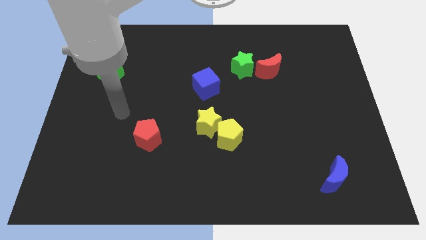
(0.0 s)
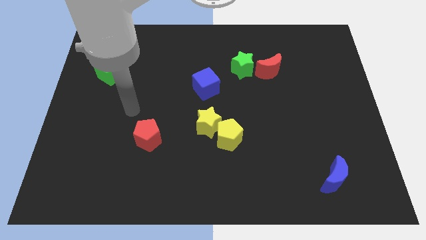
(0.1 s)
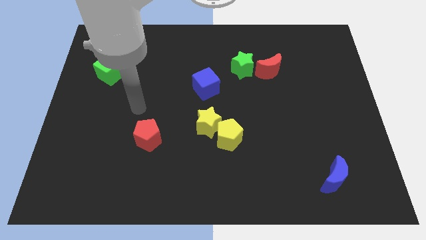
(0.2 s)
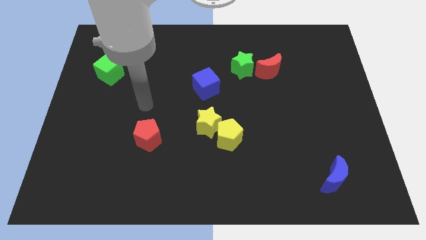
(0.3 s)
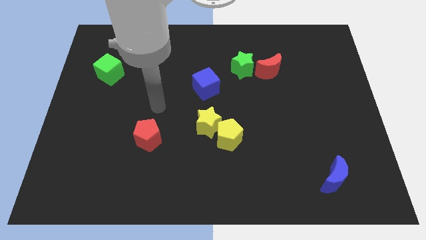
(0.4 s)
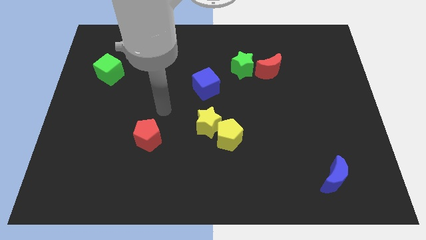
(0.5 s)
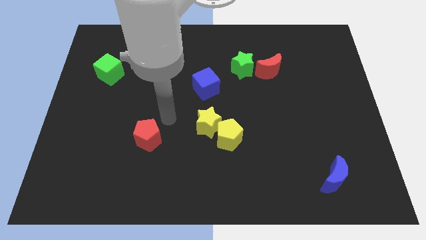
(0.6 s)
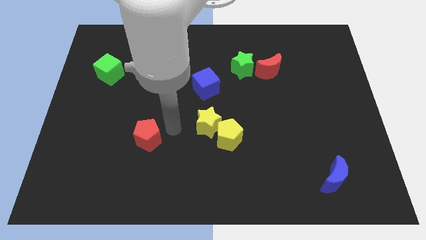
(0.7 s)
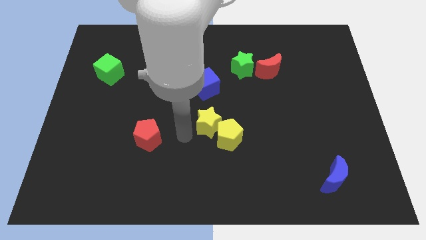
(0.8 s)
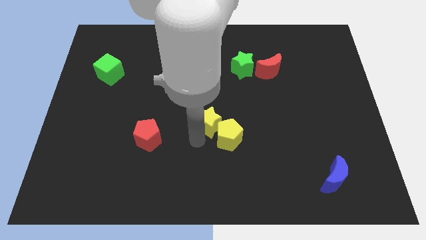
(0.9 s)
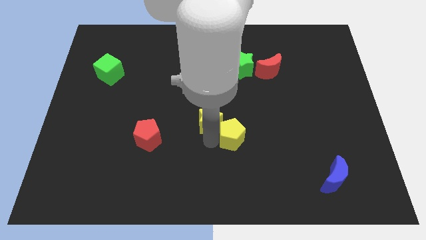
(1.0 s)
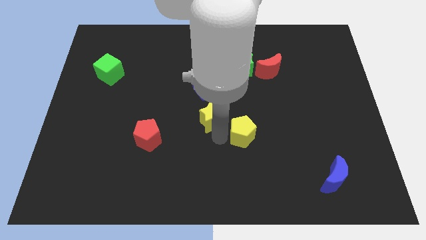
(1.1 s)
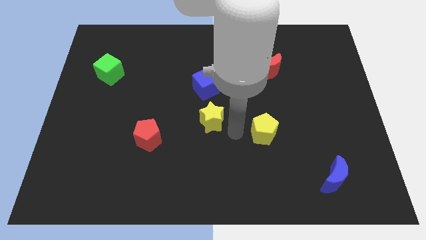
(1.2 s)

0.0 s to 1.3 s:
pull the yellow star apart from the yellow pentagon

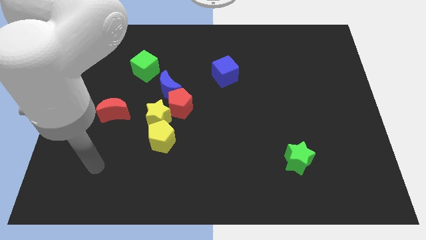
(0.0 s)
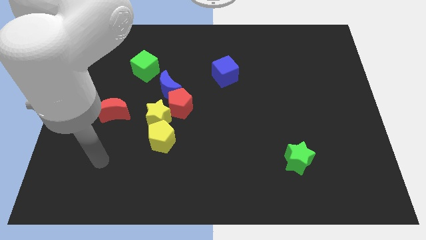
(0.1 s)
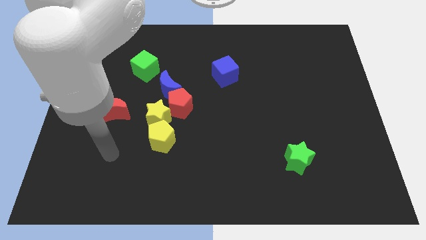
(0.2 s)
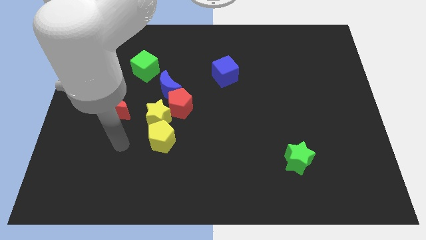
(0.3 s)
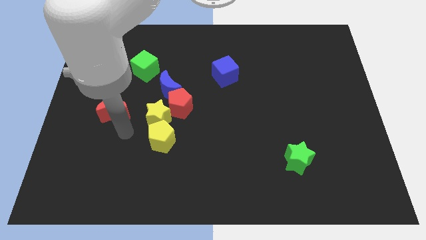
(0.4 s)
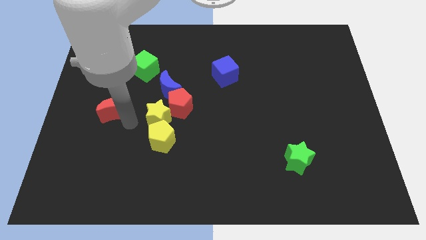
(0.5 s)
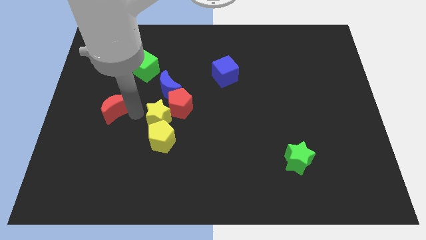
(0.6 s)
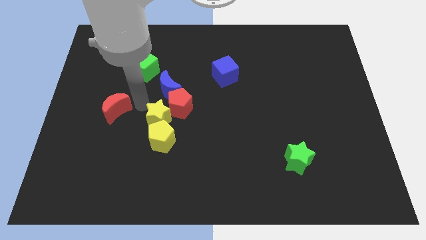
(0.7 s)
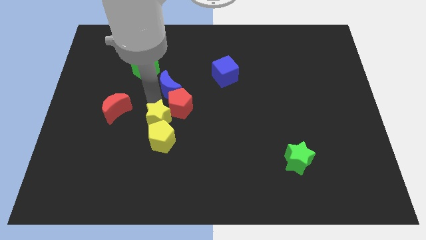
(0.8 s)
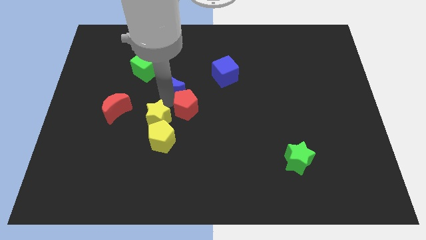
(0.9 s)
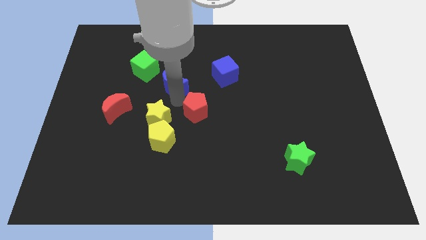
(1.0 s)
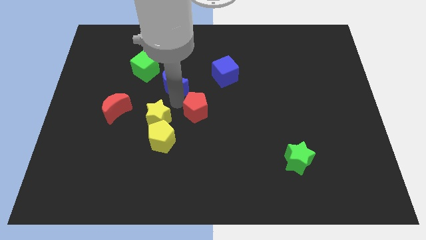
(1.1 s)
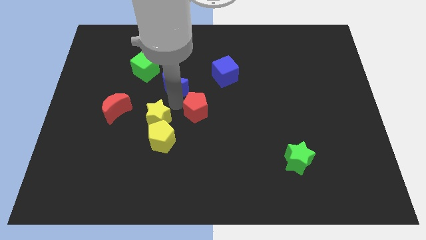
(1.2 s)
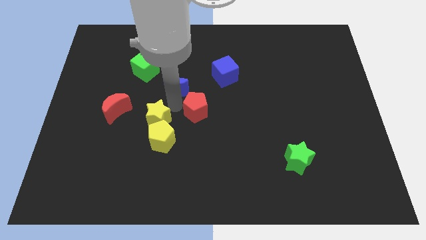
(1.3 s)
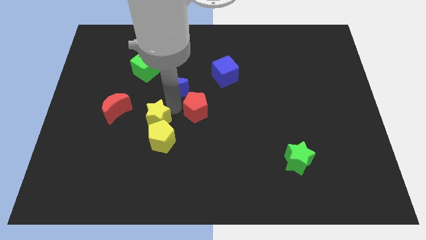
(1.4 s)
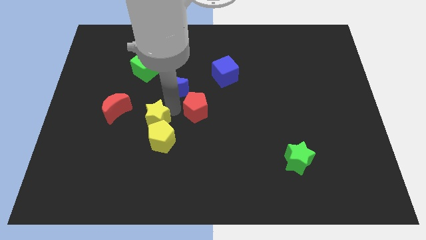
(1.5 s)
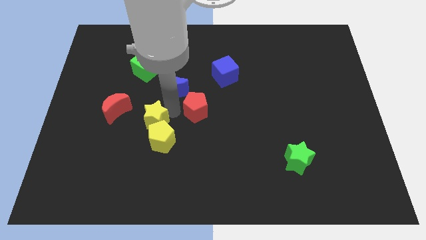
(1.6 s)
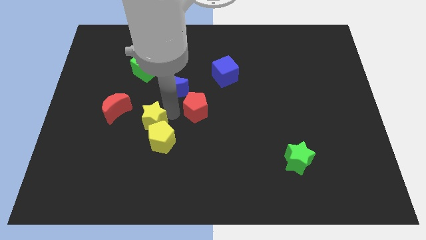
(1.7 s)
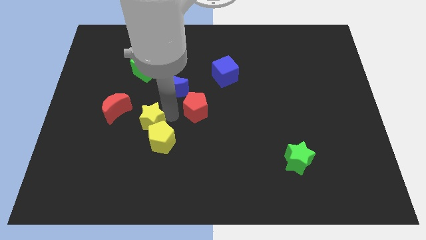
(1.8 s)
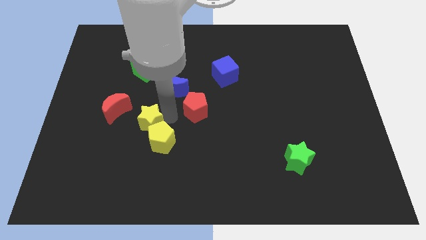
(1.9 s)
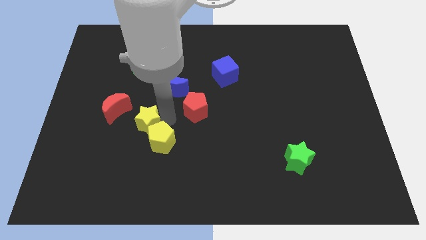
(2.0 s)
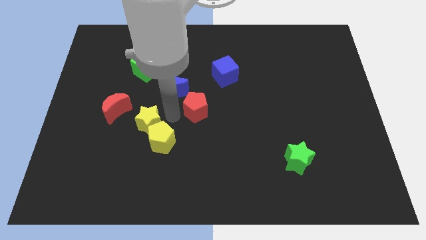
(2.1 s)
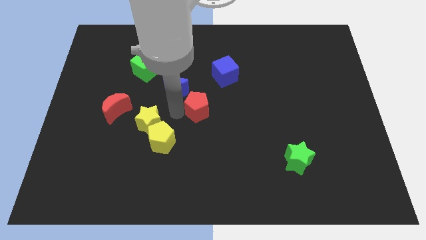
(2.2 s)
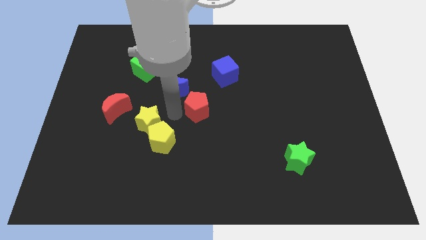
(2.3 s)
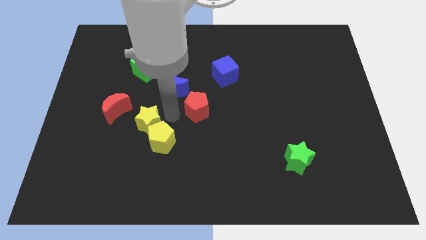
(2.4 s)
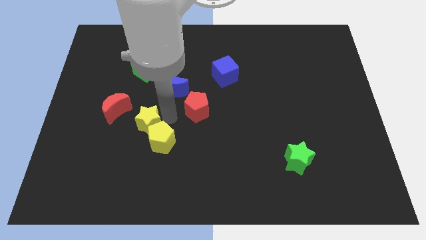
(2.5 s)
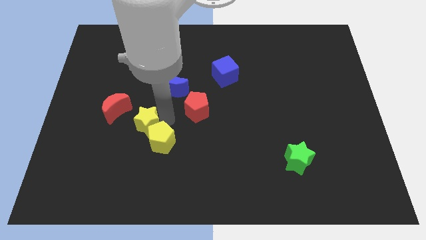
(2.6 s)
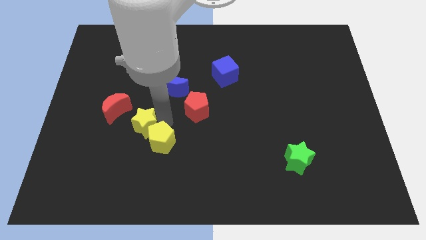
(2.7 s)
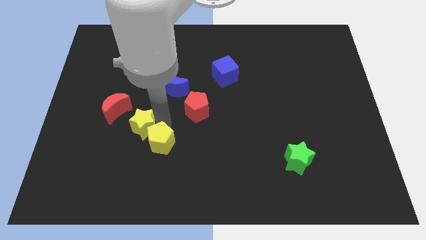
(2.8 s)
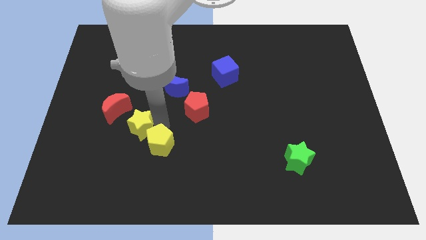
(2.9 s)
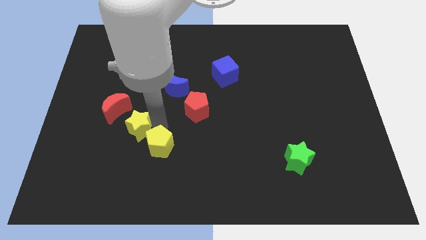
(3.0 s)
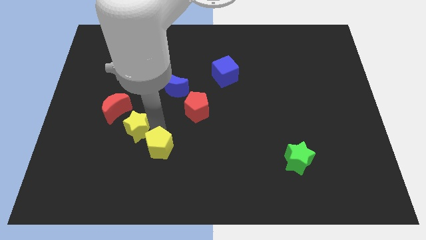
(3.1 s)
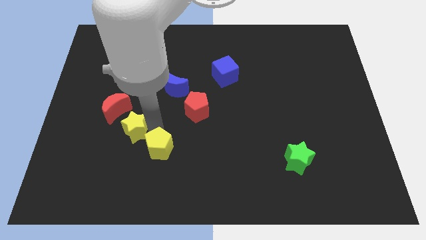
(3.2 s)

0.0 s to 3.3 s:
separate the yellow star from the yellow pentagon, red pentagon, and blue moon

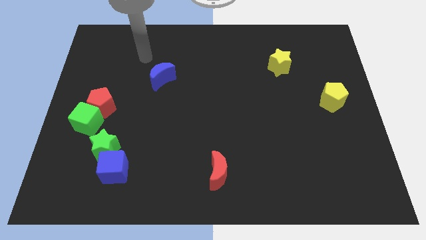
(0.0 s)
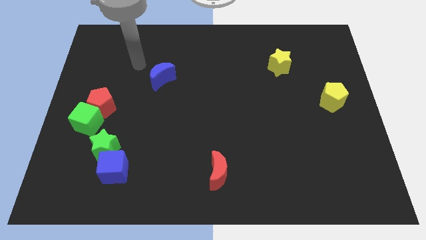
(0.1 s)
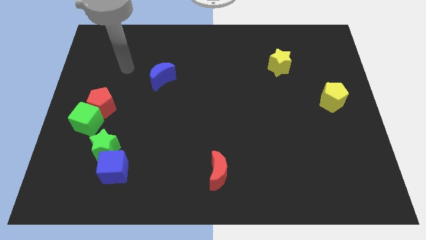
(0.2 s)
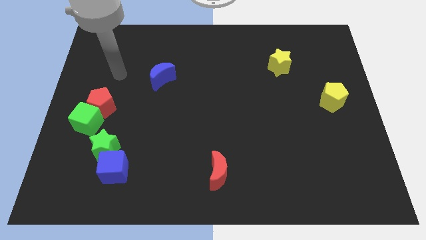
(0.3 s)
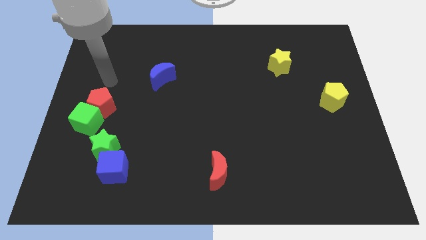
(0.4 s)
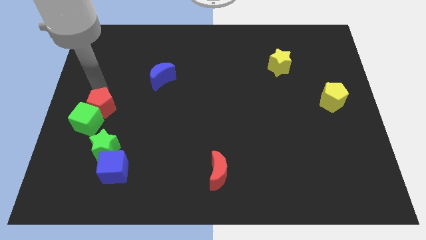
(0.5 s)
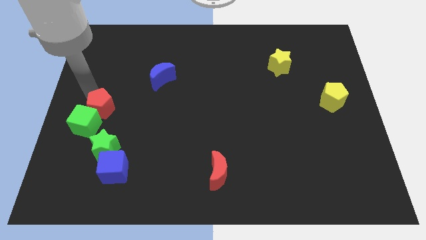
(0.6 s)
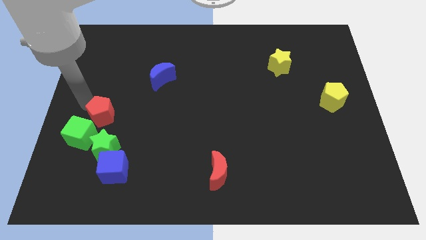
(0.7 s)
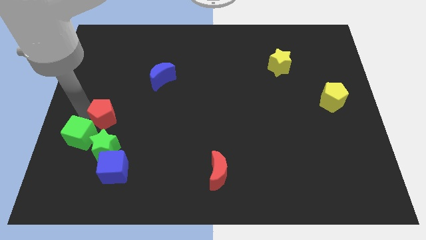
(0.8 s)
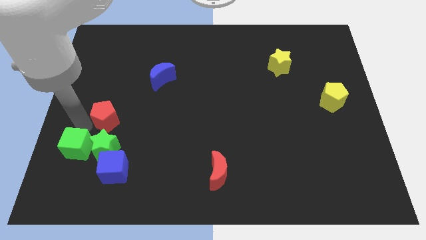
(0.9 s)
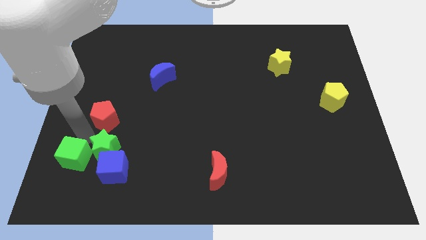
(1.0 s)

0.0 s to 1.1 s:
separate the red pentagon from the green cube

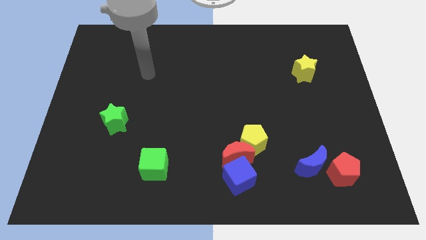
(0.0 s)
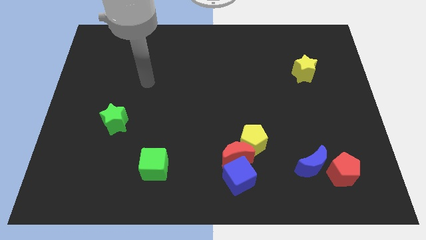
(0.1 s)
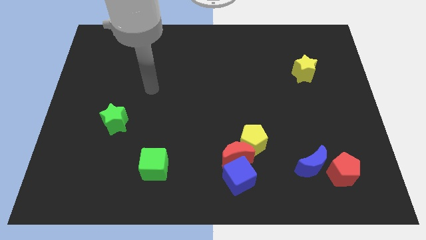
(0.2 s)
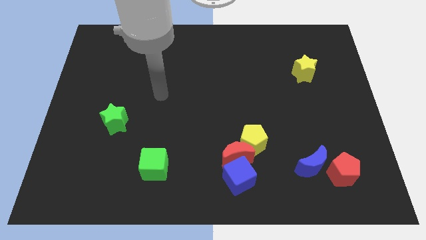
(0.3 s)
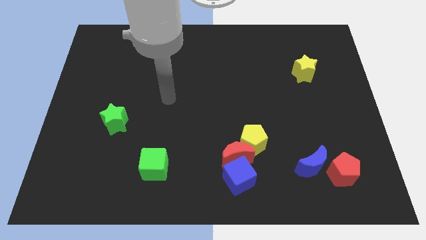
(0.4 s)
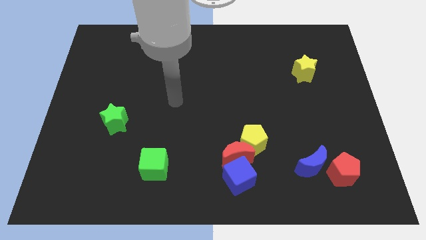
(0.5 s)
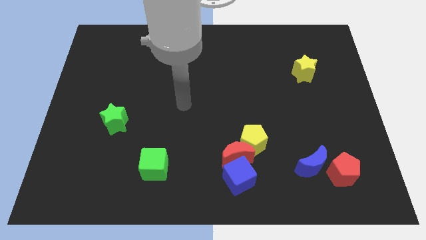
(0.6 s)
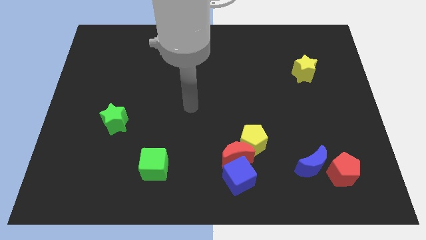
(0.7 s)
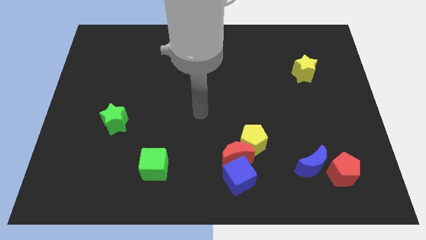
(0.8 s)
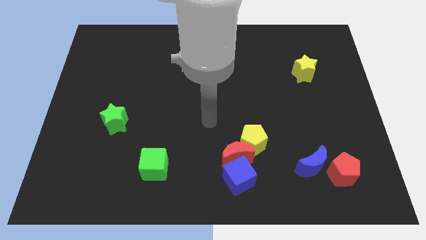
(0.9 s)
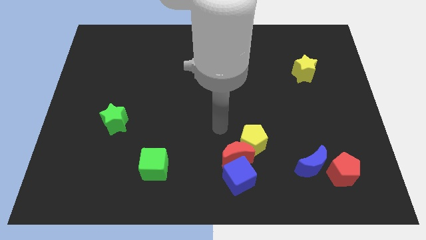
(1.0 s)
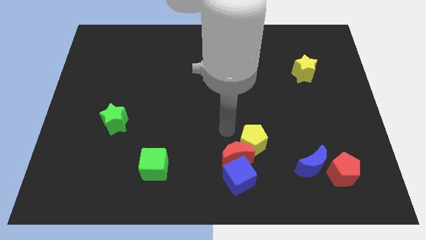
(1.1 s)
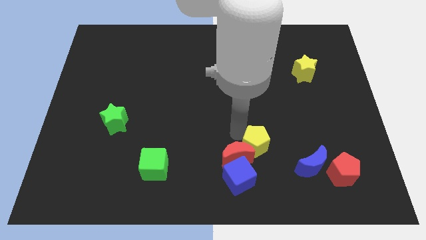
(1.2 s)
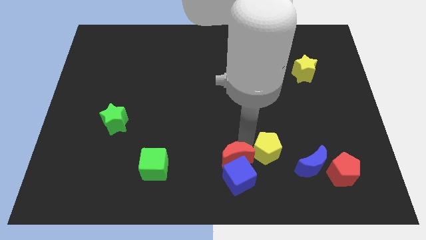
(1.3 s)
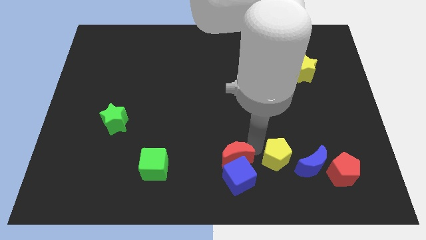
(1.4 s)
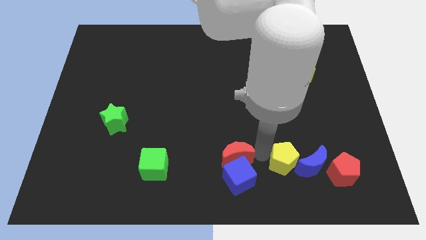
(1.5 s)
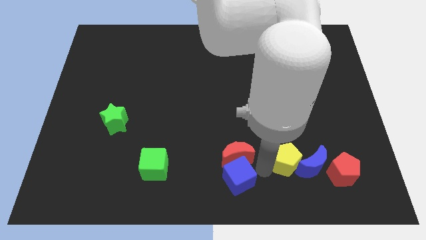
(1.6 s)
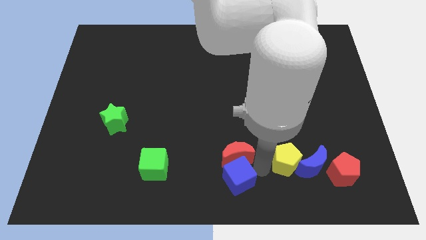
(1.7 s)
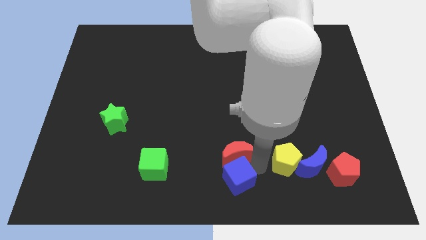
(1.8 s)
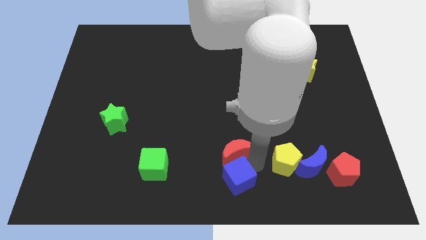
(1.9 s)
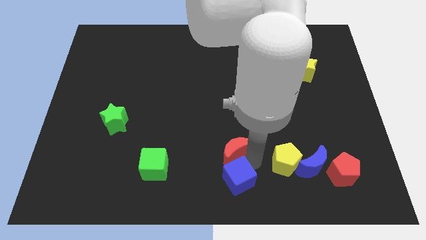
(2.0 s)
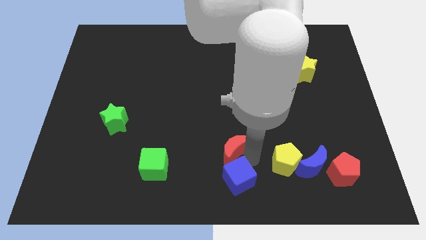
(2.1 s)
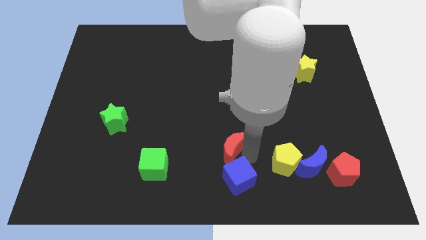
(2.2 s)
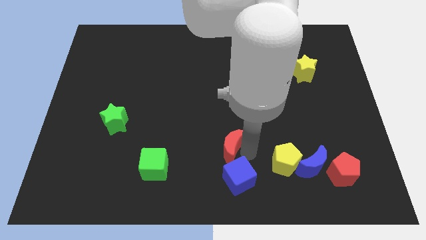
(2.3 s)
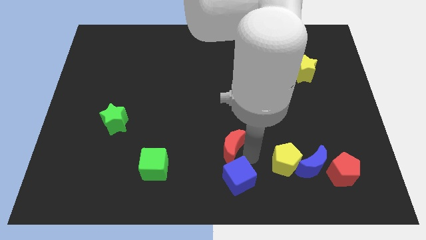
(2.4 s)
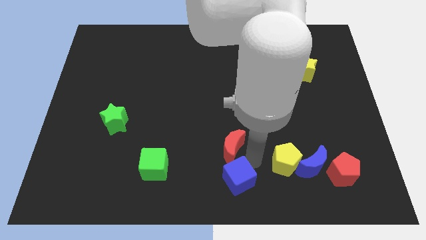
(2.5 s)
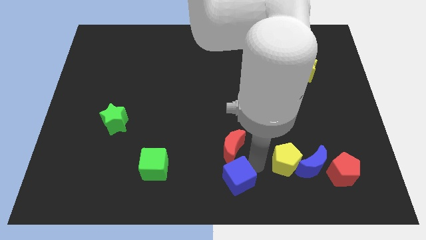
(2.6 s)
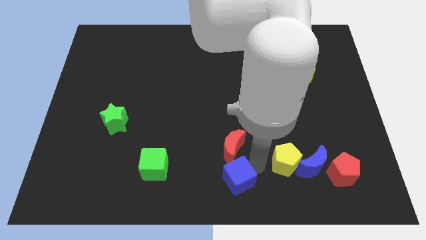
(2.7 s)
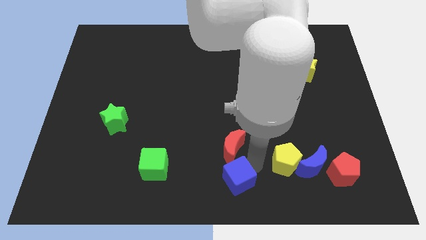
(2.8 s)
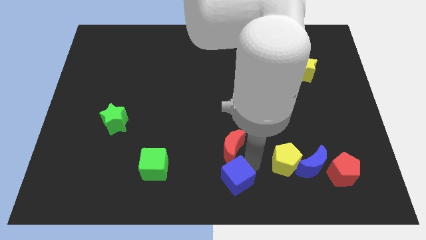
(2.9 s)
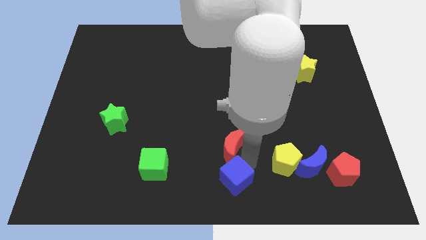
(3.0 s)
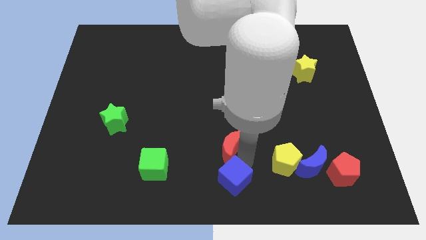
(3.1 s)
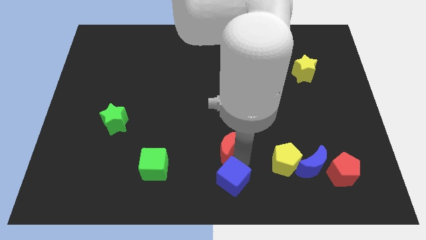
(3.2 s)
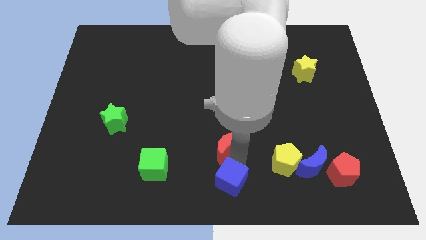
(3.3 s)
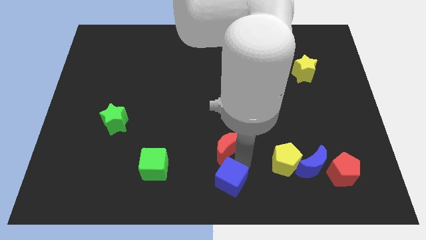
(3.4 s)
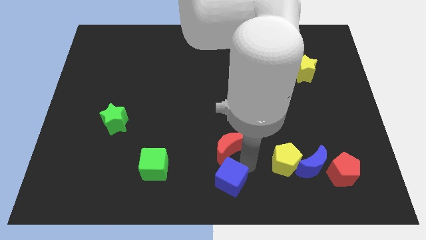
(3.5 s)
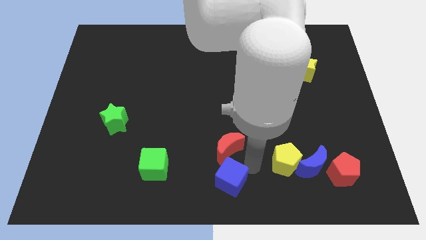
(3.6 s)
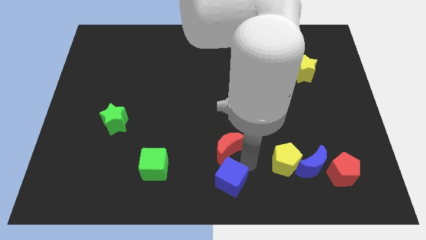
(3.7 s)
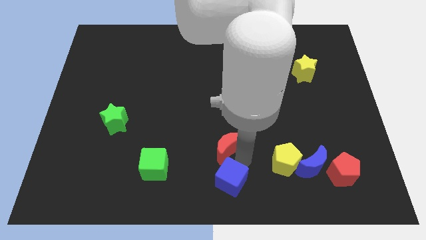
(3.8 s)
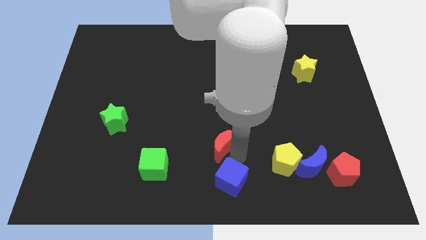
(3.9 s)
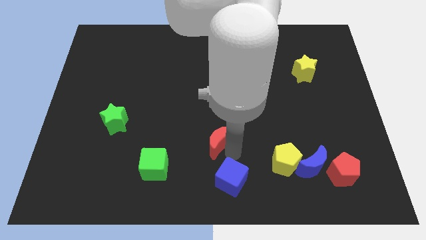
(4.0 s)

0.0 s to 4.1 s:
move the red moon away from the blue cube and yellow pentagon
